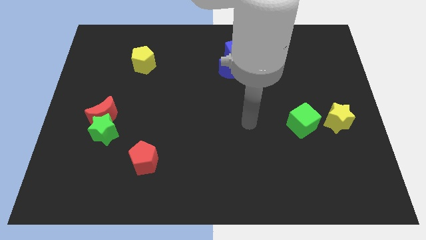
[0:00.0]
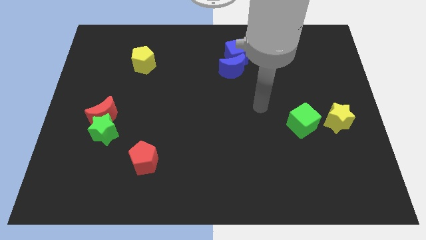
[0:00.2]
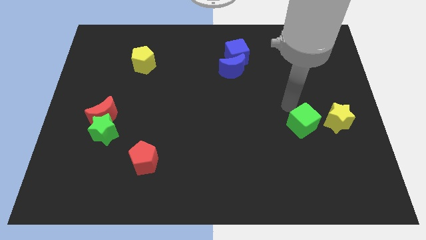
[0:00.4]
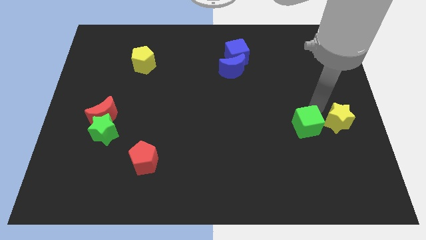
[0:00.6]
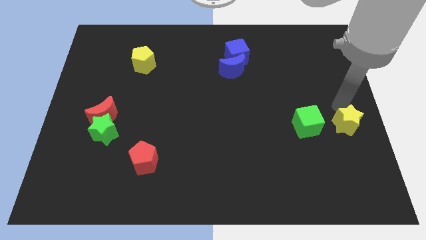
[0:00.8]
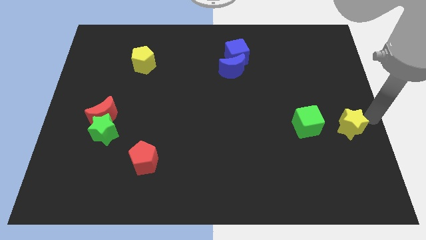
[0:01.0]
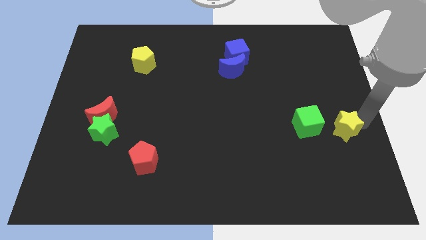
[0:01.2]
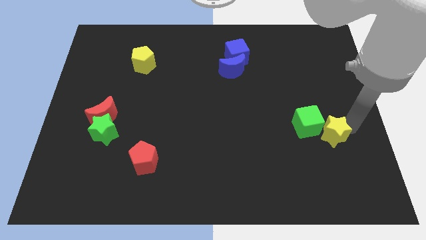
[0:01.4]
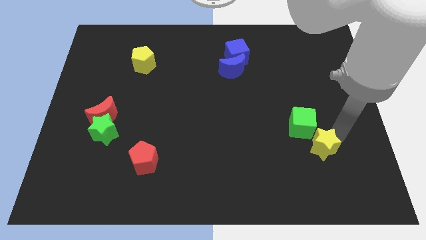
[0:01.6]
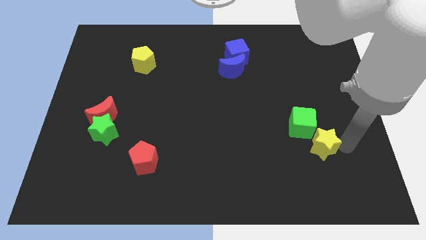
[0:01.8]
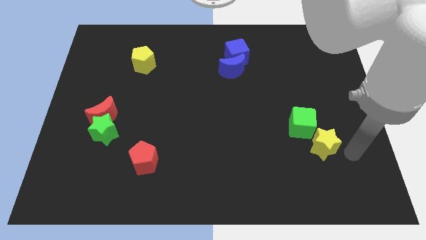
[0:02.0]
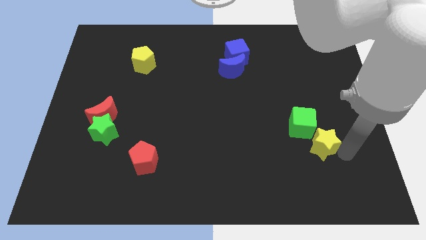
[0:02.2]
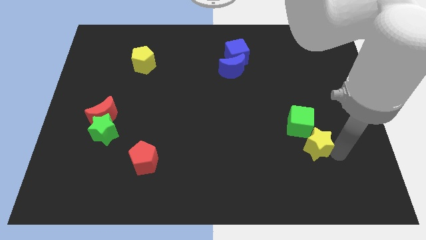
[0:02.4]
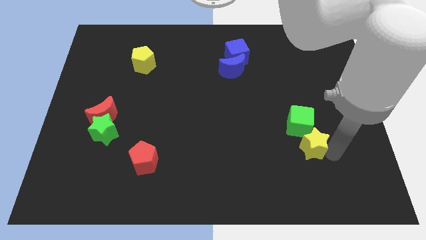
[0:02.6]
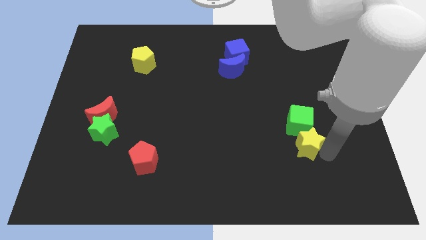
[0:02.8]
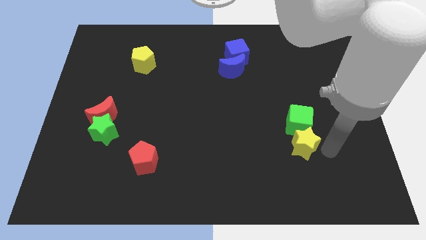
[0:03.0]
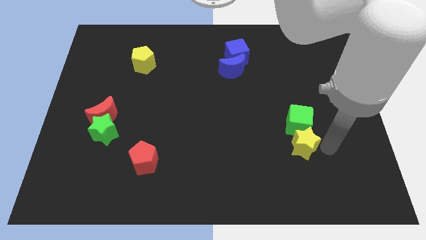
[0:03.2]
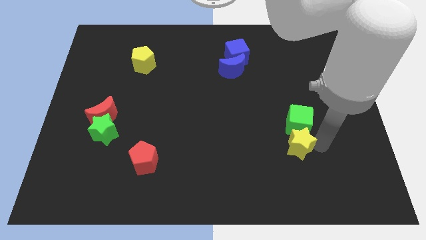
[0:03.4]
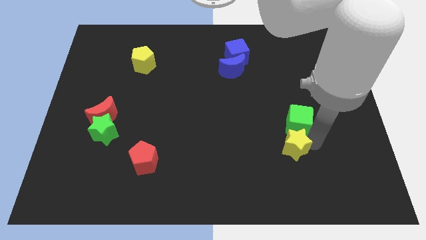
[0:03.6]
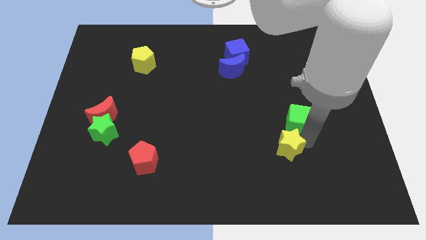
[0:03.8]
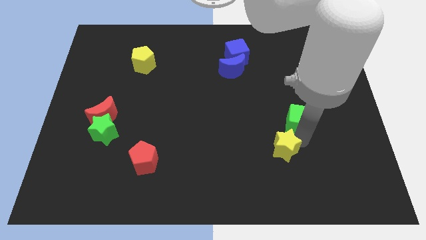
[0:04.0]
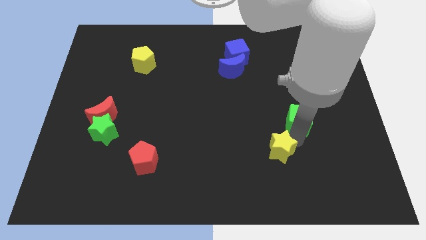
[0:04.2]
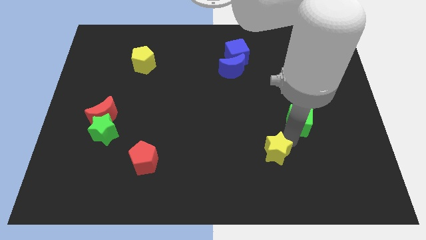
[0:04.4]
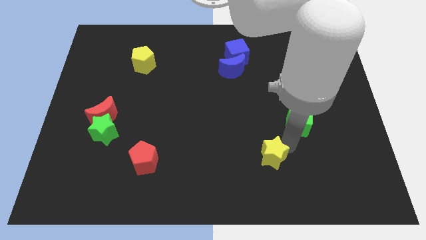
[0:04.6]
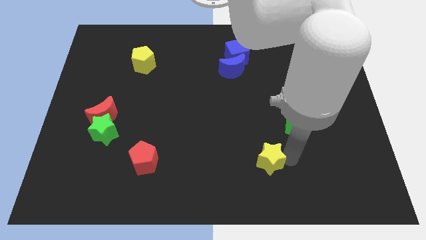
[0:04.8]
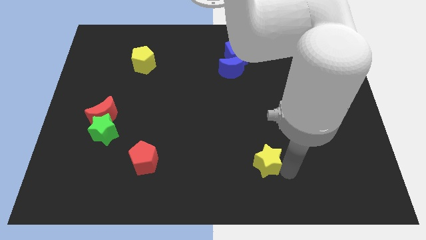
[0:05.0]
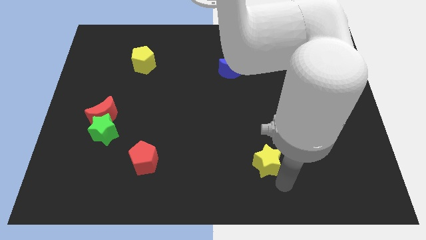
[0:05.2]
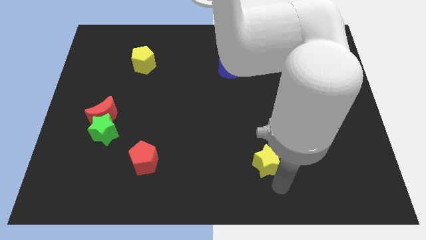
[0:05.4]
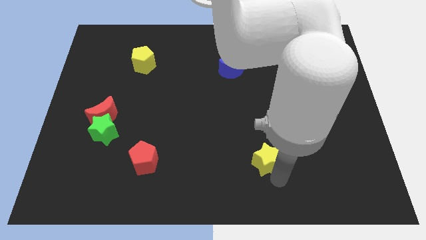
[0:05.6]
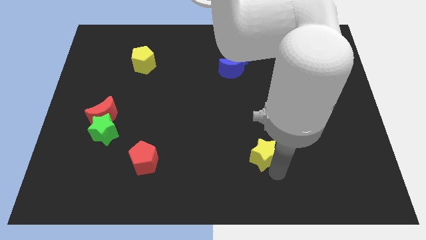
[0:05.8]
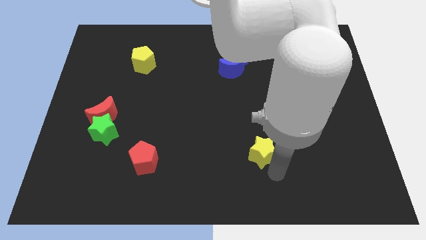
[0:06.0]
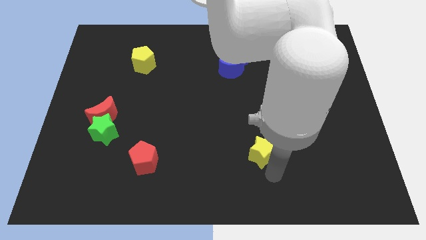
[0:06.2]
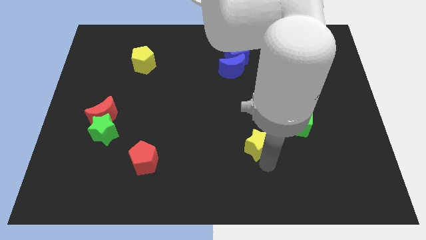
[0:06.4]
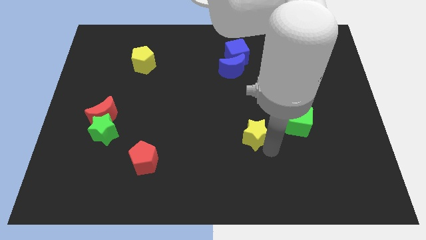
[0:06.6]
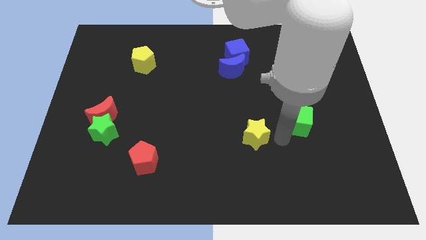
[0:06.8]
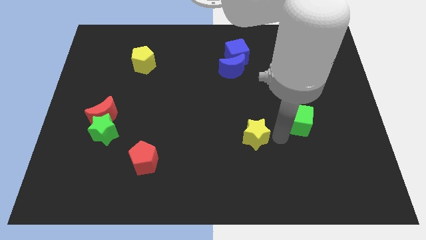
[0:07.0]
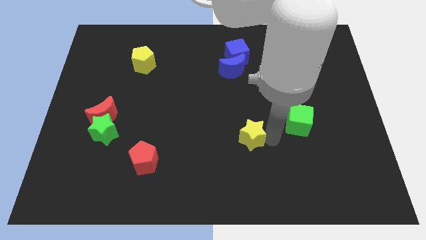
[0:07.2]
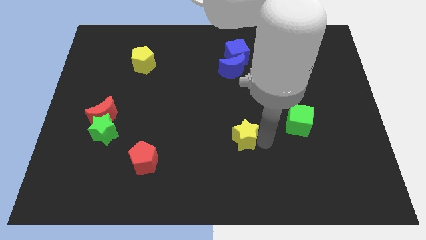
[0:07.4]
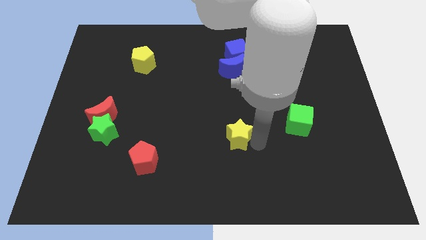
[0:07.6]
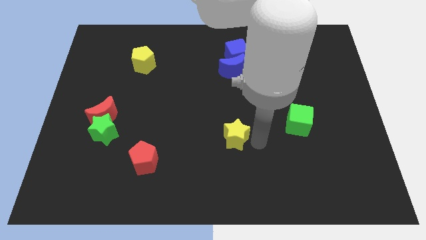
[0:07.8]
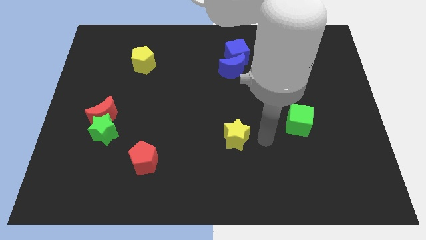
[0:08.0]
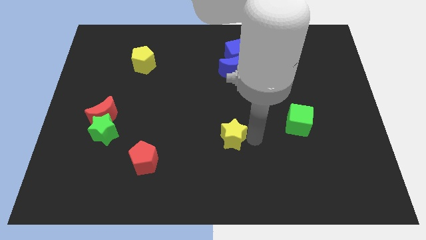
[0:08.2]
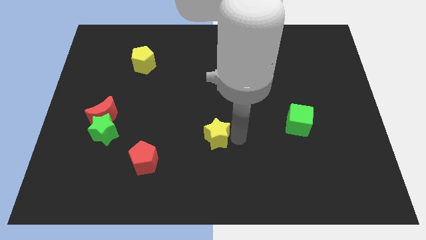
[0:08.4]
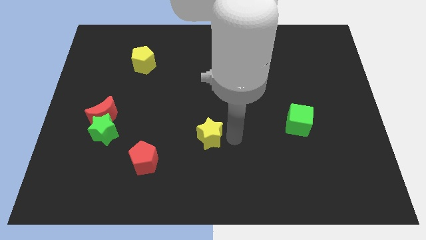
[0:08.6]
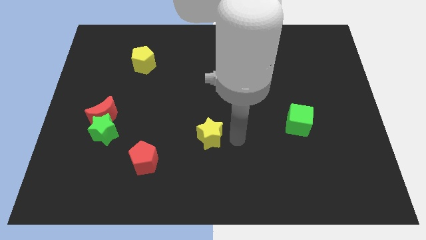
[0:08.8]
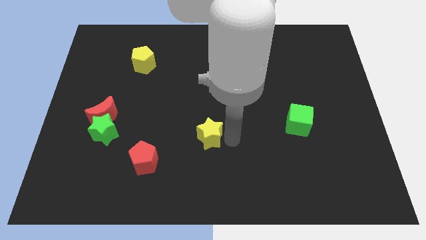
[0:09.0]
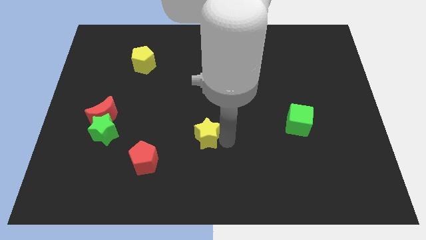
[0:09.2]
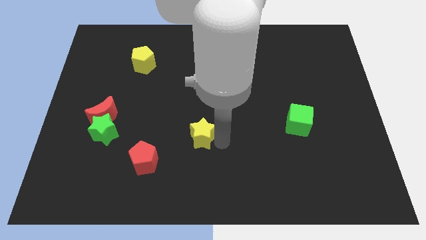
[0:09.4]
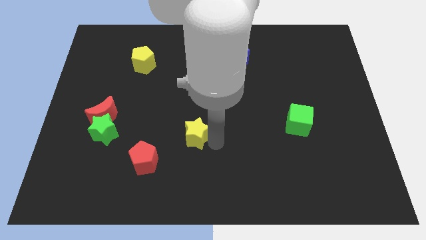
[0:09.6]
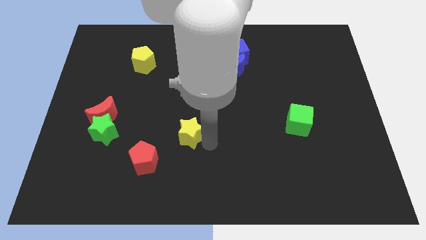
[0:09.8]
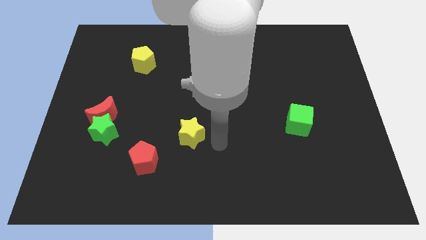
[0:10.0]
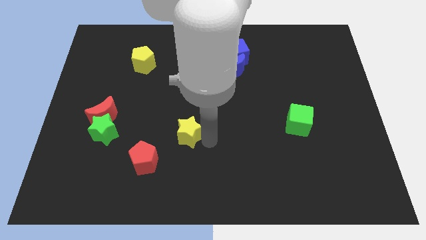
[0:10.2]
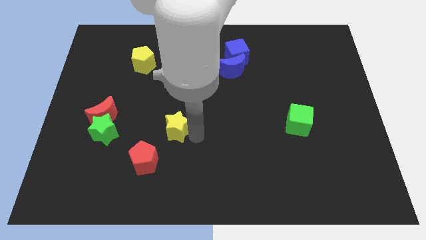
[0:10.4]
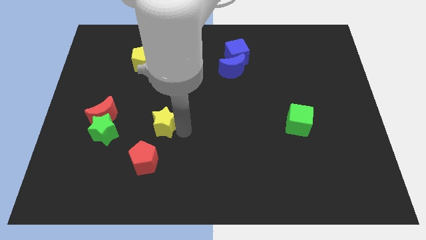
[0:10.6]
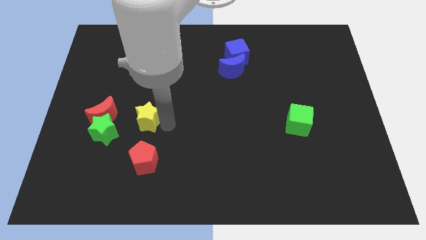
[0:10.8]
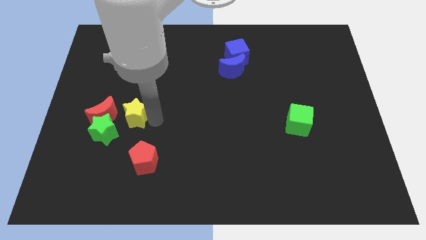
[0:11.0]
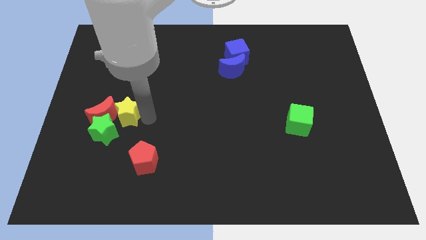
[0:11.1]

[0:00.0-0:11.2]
push the yellow star towards the red moon

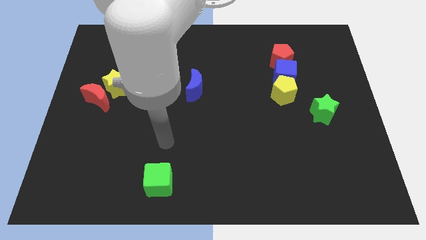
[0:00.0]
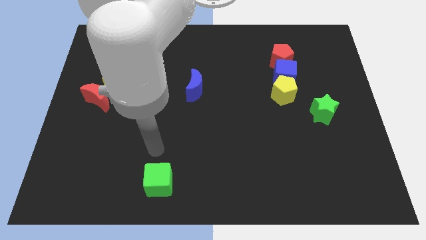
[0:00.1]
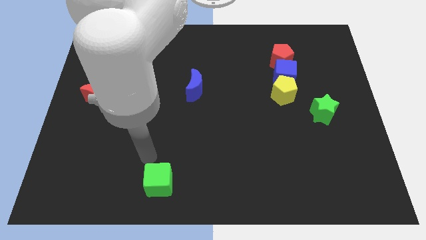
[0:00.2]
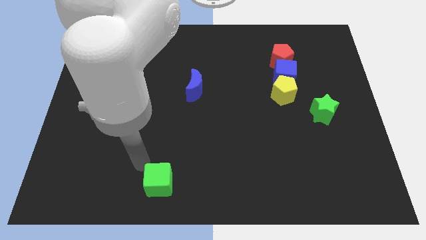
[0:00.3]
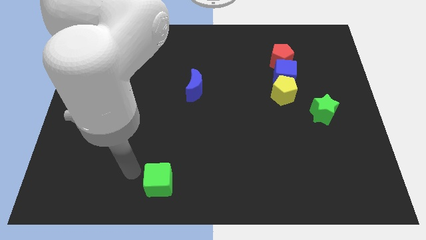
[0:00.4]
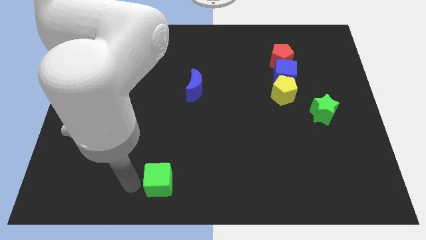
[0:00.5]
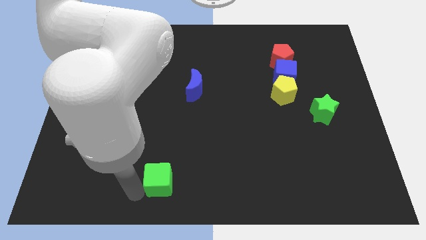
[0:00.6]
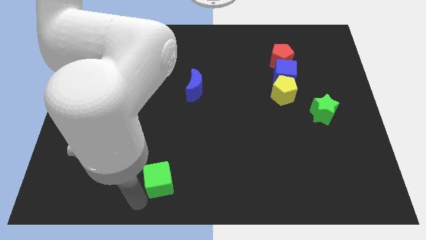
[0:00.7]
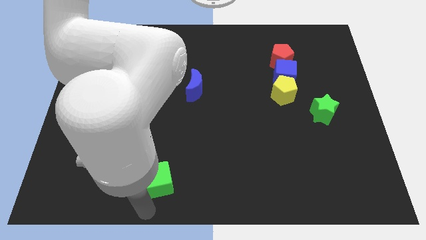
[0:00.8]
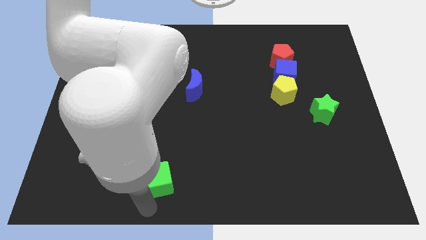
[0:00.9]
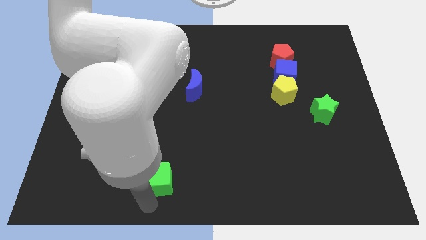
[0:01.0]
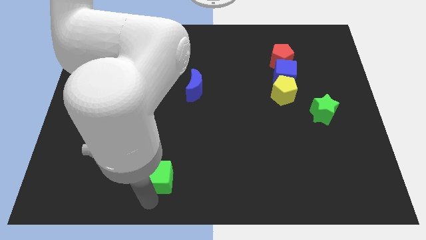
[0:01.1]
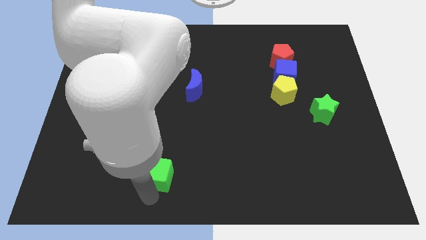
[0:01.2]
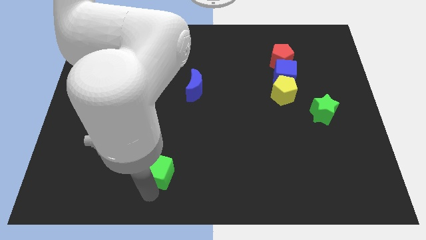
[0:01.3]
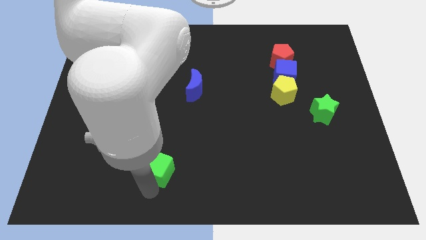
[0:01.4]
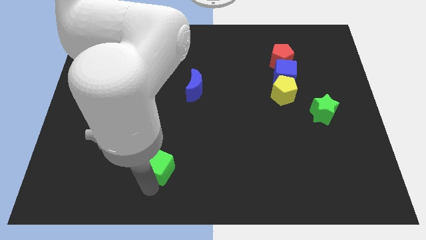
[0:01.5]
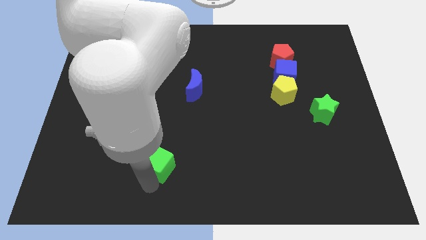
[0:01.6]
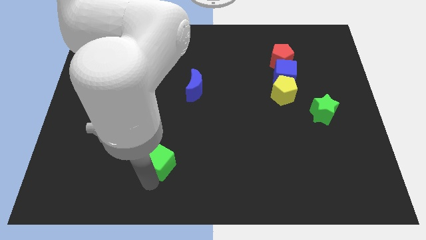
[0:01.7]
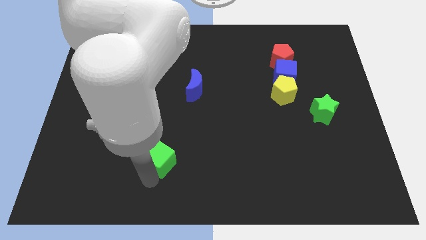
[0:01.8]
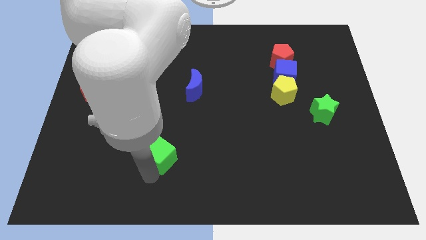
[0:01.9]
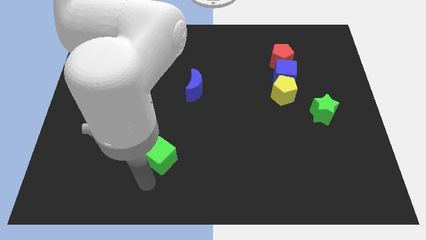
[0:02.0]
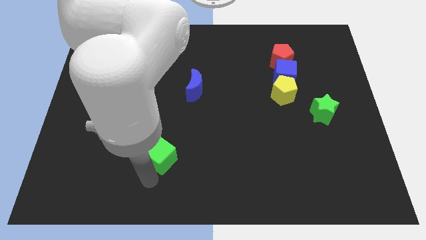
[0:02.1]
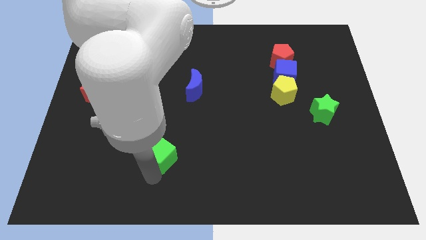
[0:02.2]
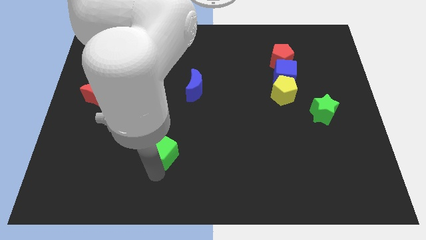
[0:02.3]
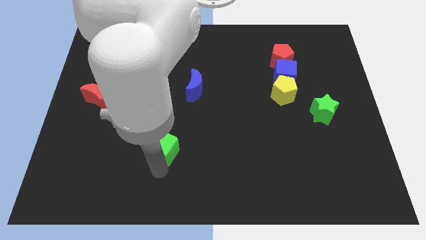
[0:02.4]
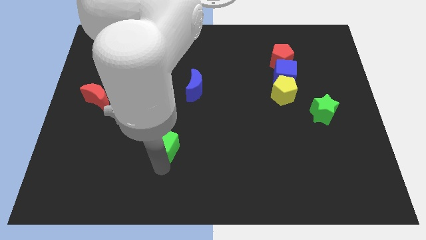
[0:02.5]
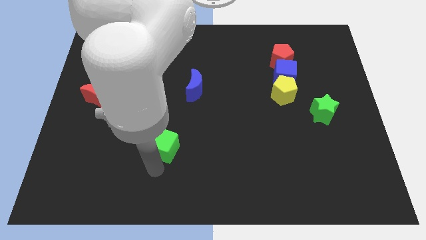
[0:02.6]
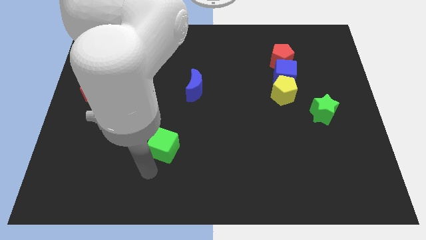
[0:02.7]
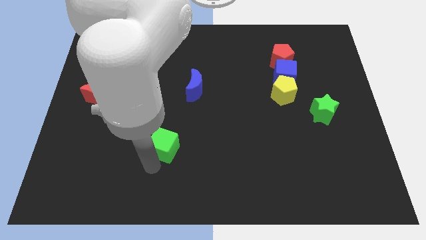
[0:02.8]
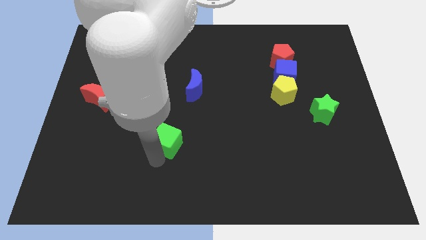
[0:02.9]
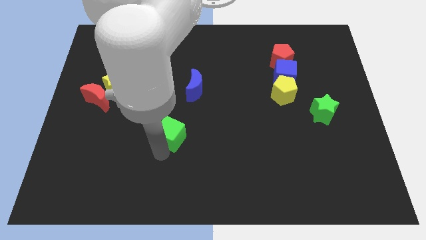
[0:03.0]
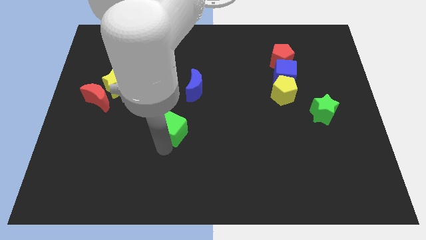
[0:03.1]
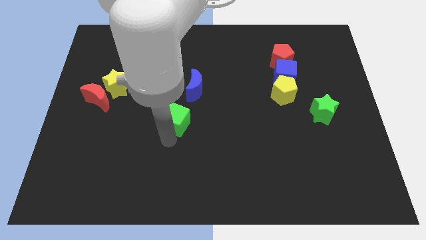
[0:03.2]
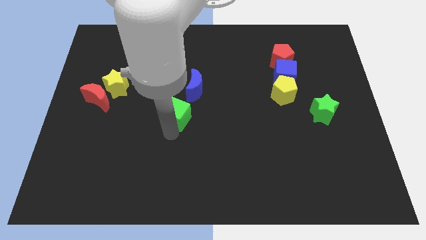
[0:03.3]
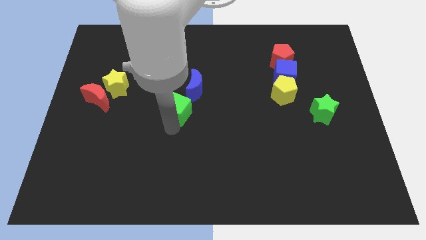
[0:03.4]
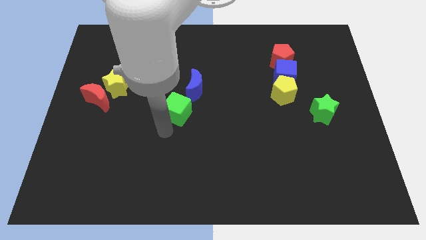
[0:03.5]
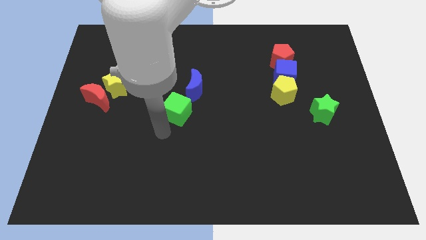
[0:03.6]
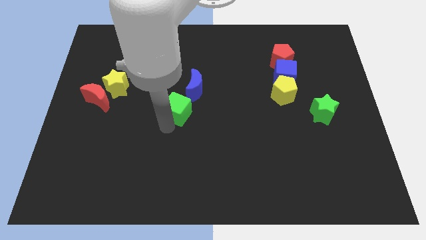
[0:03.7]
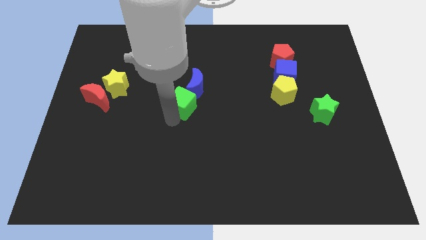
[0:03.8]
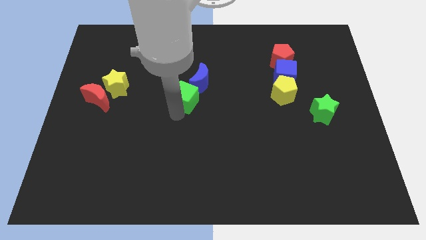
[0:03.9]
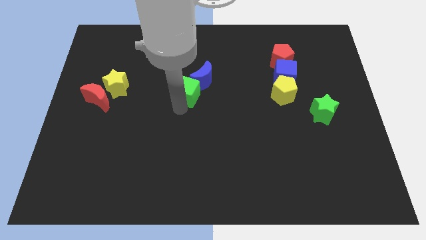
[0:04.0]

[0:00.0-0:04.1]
move the green cube to the blue moon
